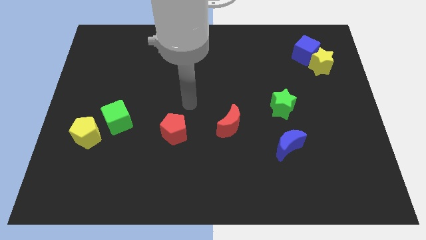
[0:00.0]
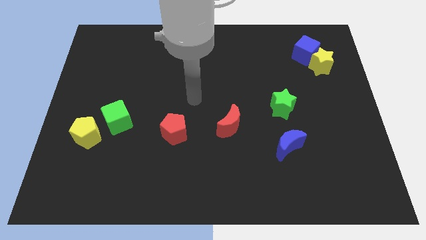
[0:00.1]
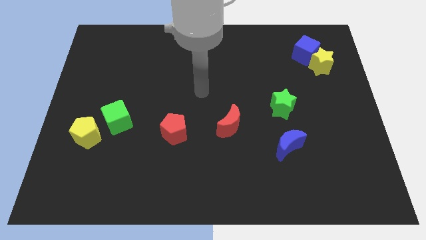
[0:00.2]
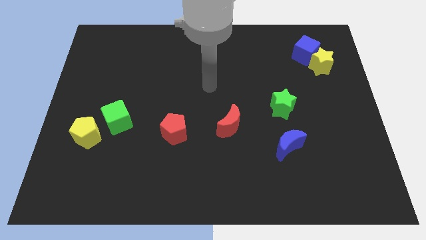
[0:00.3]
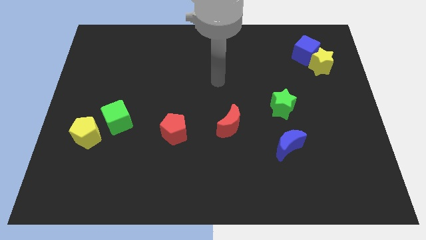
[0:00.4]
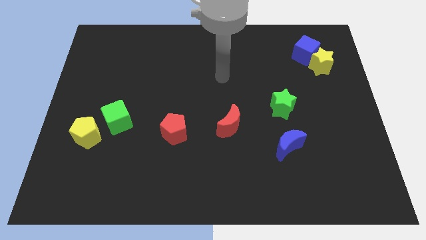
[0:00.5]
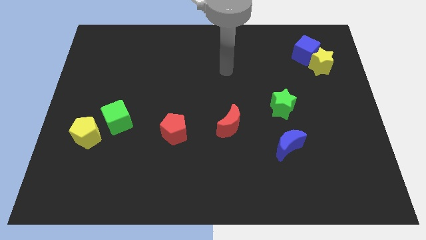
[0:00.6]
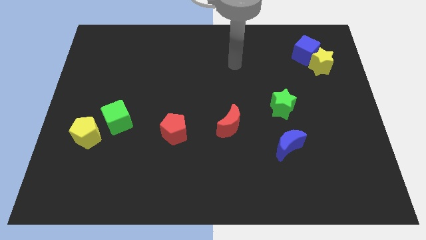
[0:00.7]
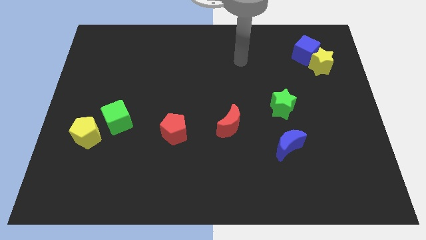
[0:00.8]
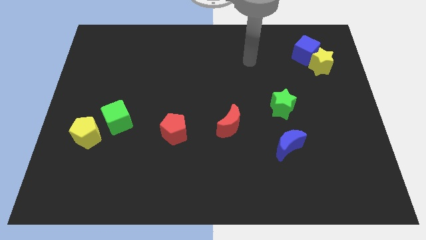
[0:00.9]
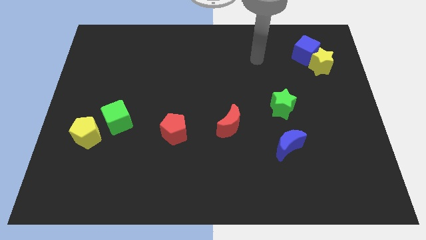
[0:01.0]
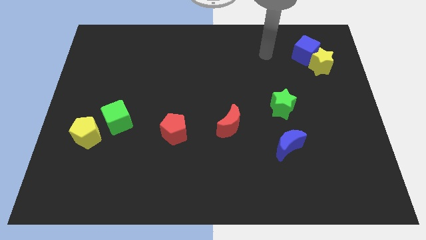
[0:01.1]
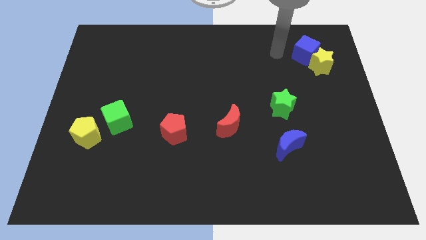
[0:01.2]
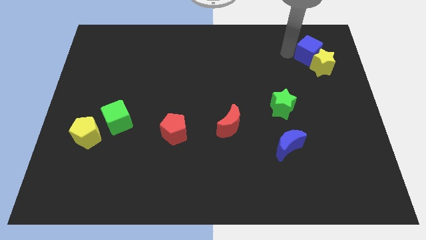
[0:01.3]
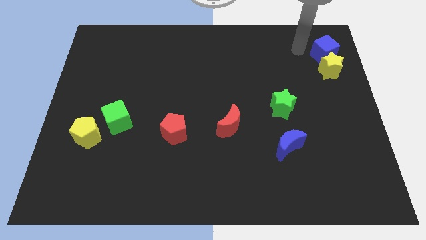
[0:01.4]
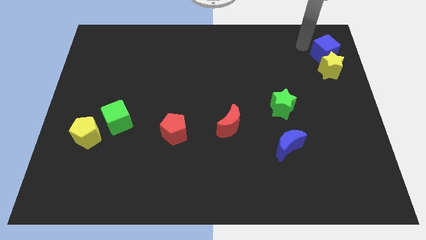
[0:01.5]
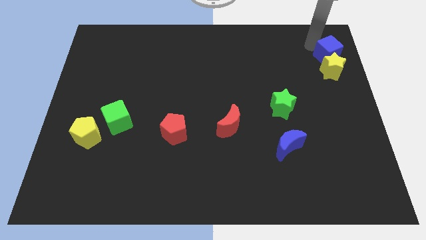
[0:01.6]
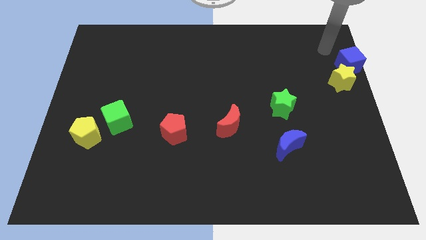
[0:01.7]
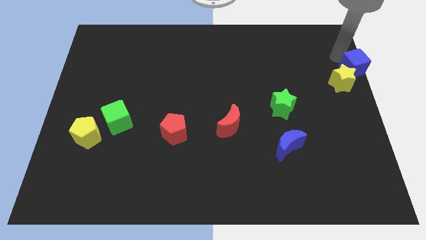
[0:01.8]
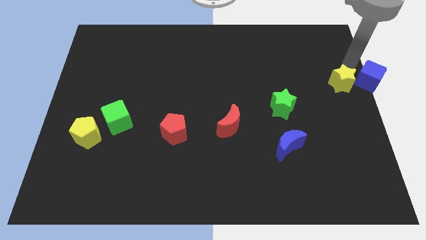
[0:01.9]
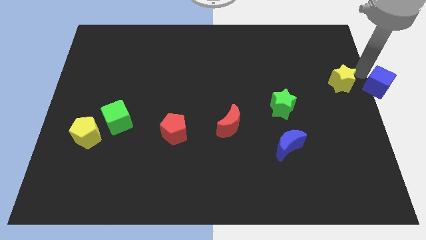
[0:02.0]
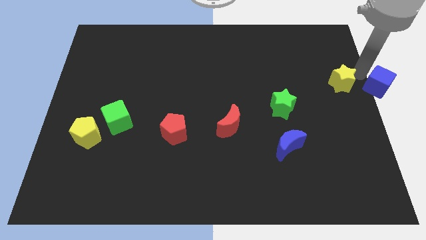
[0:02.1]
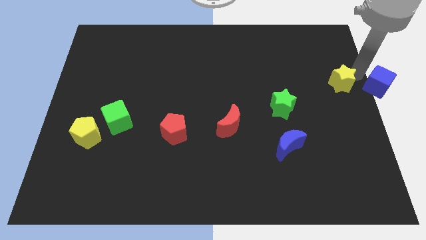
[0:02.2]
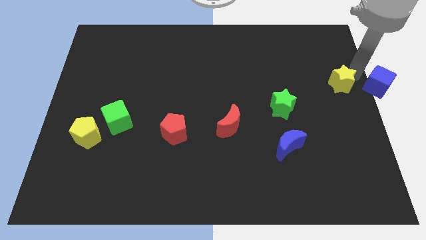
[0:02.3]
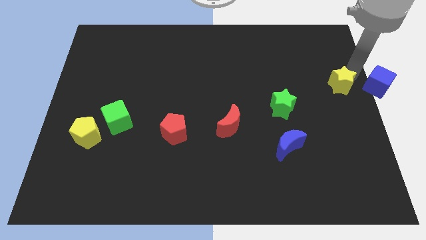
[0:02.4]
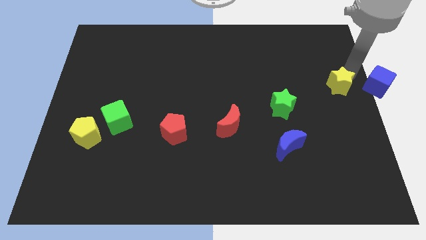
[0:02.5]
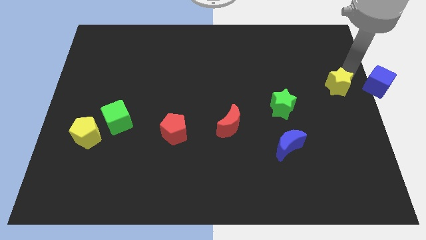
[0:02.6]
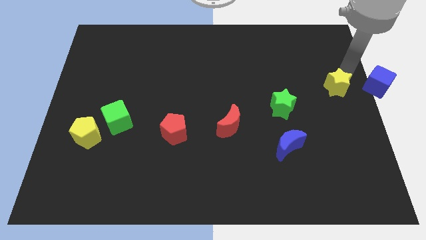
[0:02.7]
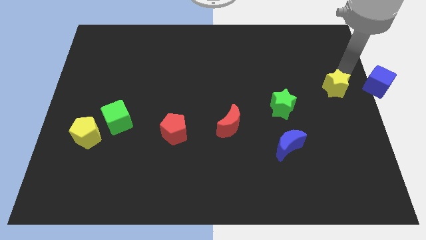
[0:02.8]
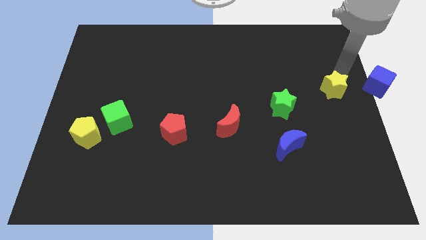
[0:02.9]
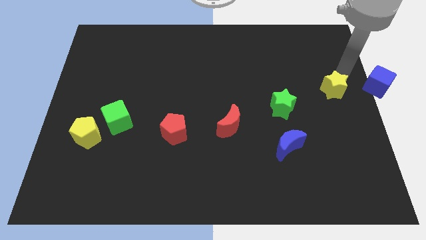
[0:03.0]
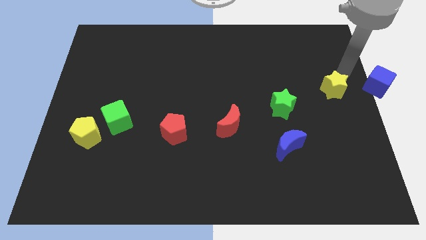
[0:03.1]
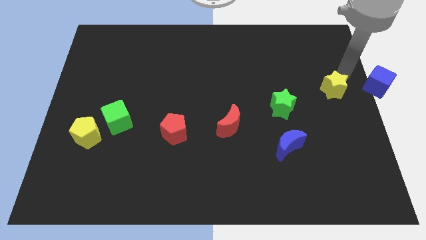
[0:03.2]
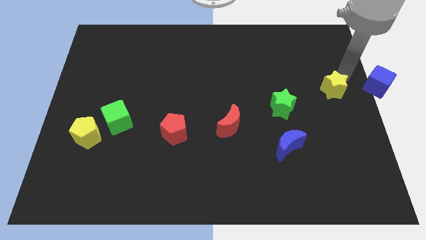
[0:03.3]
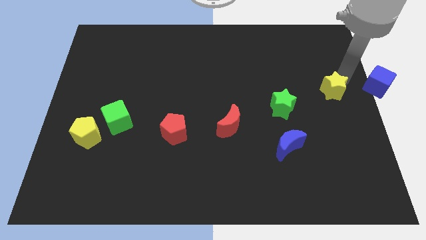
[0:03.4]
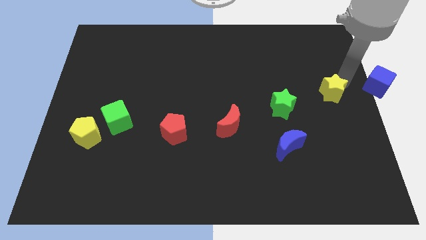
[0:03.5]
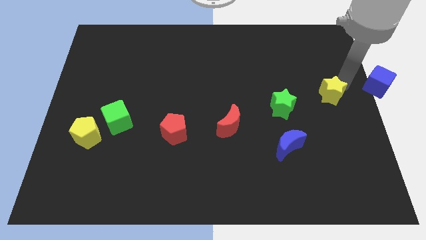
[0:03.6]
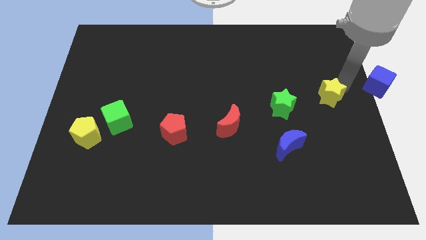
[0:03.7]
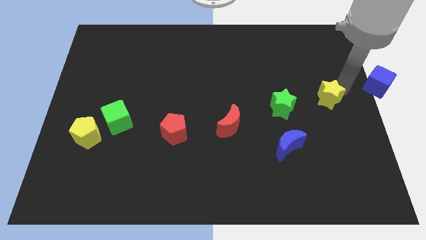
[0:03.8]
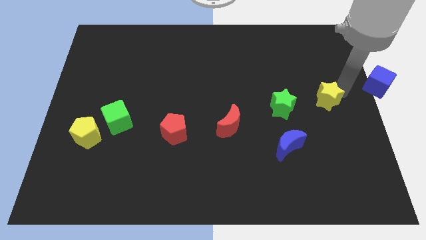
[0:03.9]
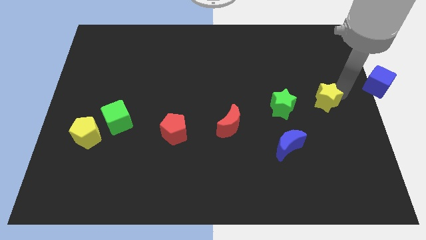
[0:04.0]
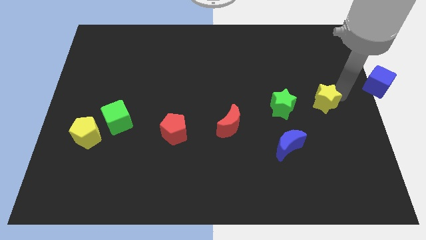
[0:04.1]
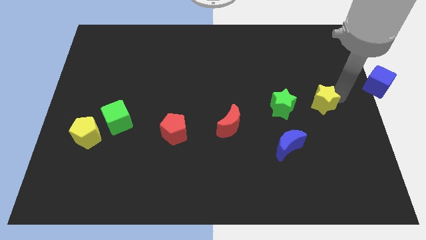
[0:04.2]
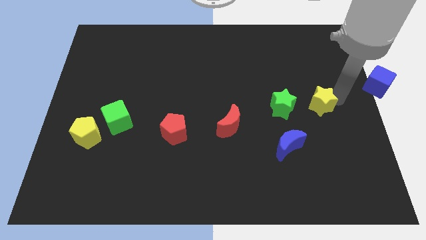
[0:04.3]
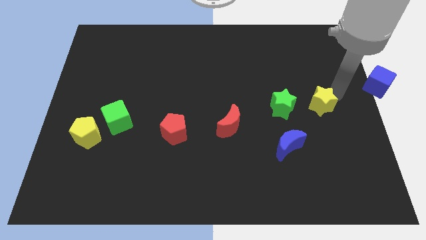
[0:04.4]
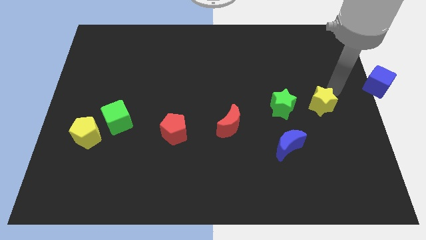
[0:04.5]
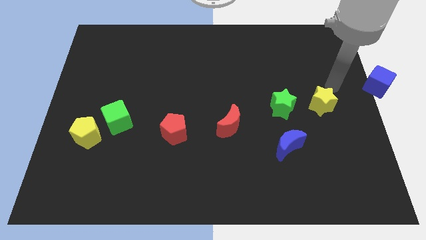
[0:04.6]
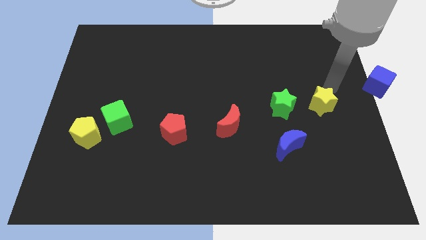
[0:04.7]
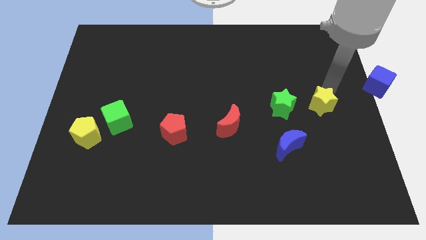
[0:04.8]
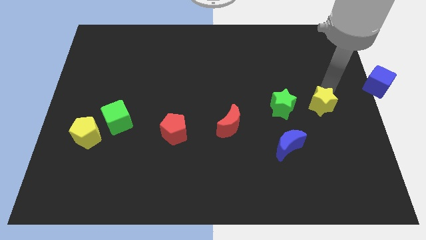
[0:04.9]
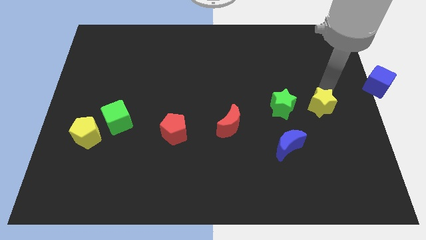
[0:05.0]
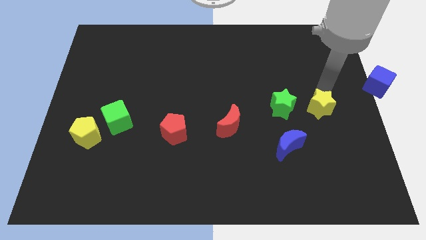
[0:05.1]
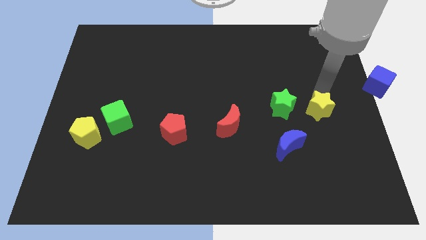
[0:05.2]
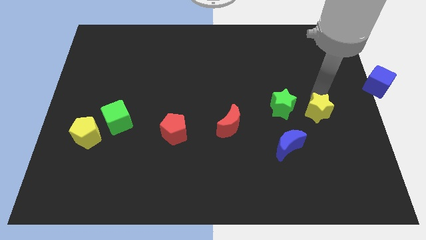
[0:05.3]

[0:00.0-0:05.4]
push the yellow star diagonally down and to the right of the green star

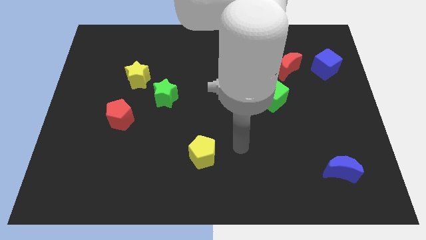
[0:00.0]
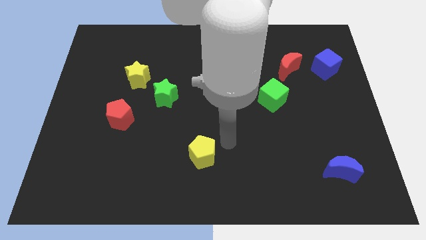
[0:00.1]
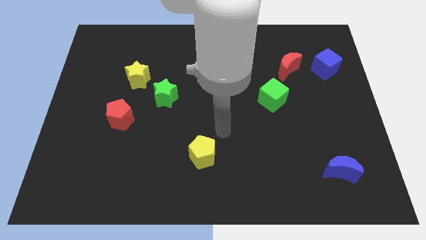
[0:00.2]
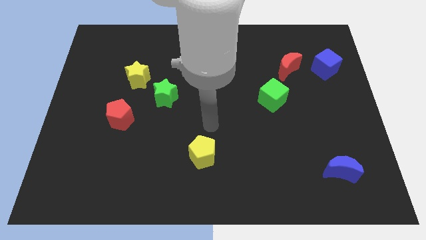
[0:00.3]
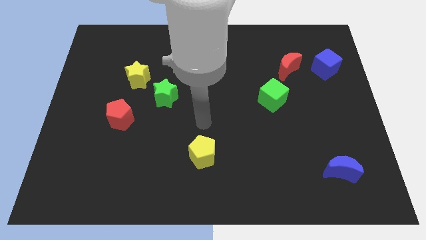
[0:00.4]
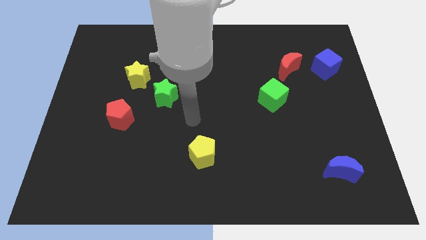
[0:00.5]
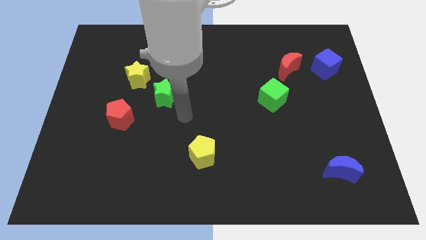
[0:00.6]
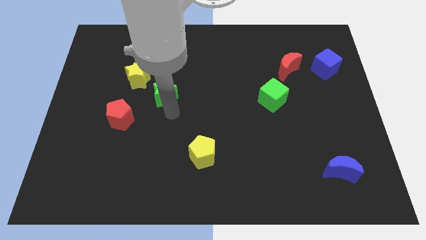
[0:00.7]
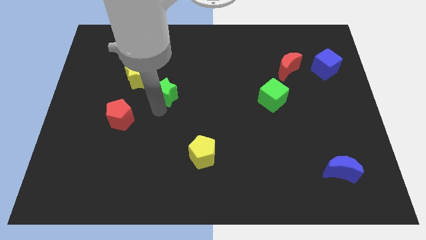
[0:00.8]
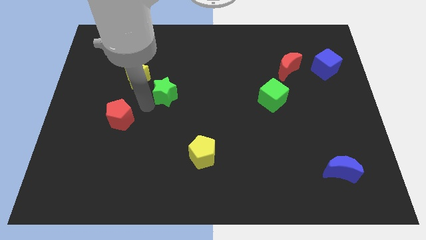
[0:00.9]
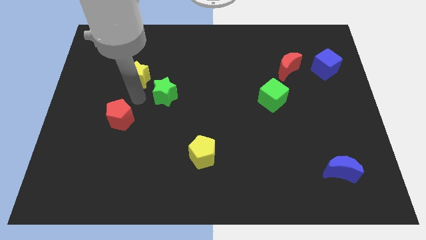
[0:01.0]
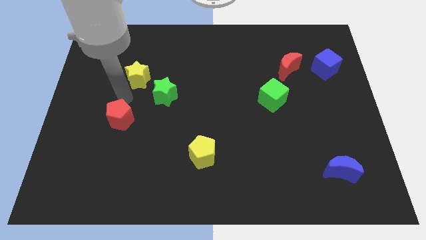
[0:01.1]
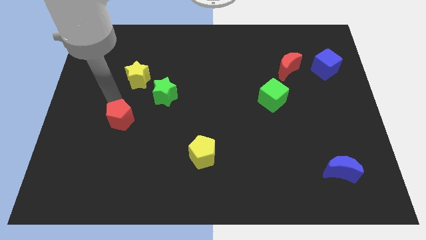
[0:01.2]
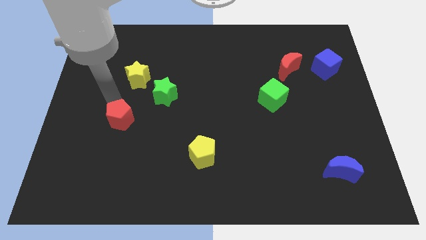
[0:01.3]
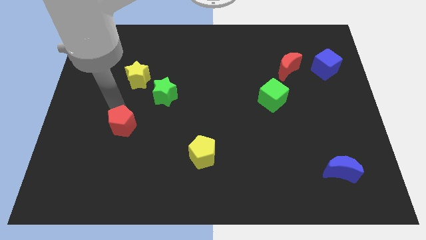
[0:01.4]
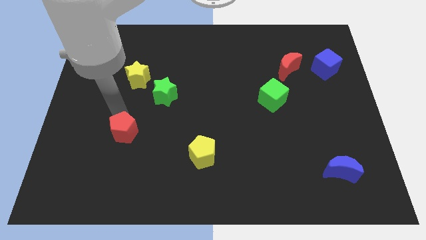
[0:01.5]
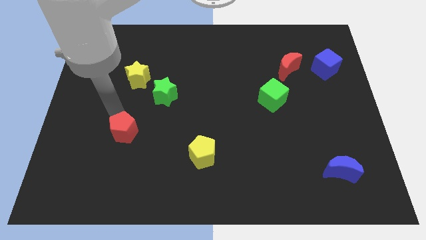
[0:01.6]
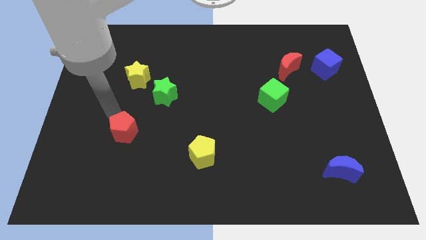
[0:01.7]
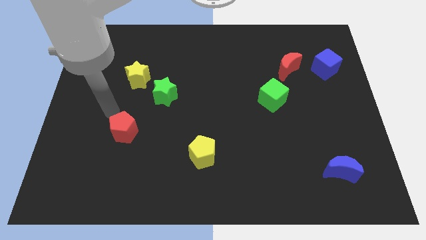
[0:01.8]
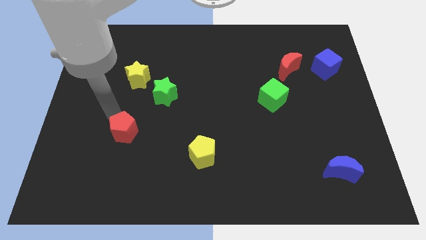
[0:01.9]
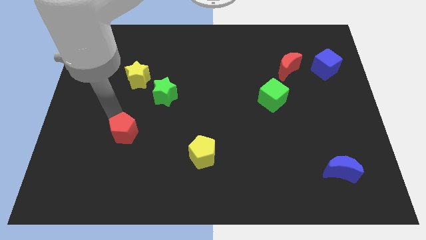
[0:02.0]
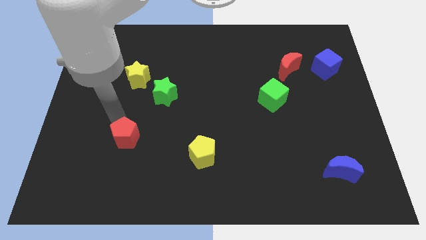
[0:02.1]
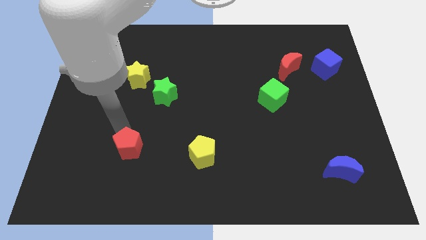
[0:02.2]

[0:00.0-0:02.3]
push the red pentagon to the left side of the yellow pentagon

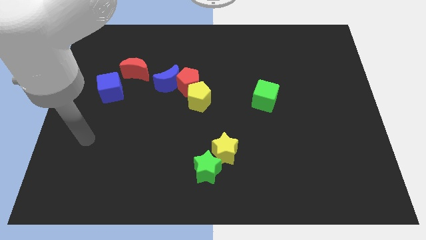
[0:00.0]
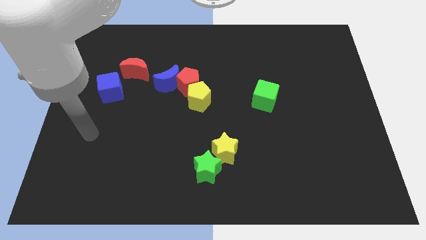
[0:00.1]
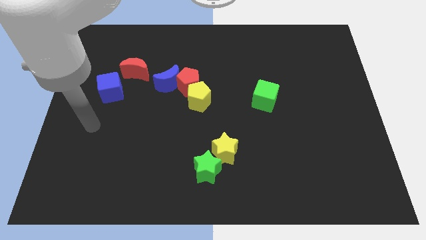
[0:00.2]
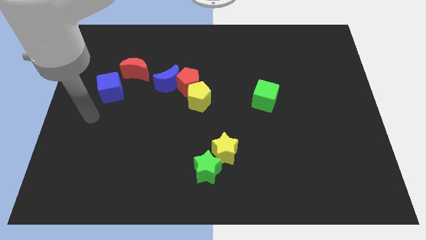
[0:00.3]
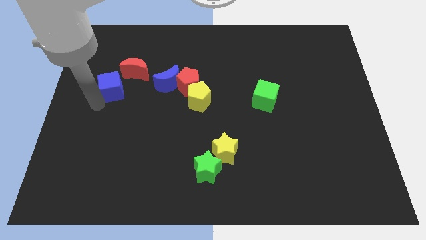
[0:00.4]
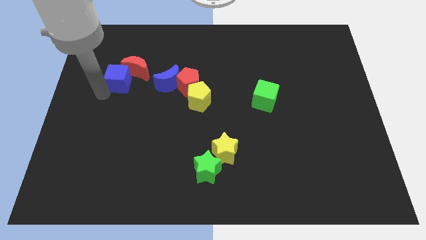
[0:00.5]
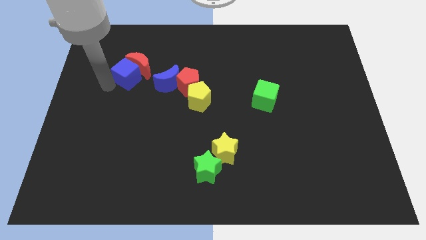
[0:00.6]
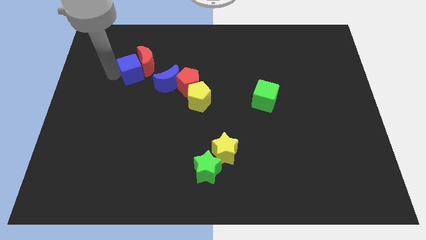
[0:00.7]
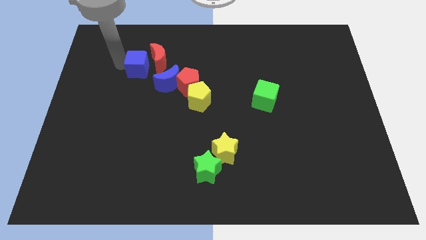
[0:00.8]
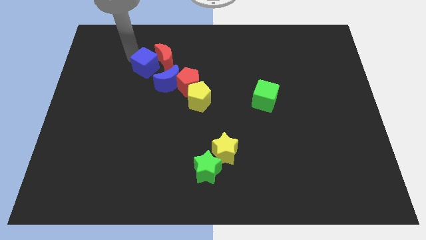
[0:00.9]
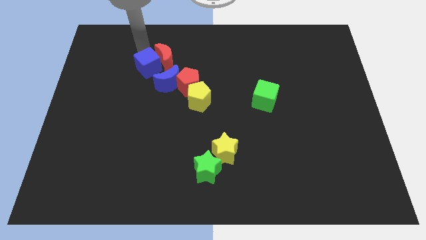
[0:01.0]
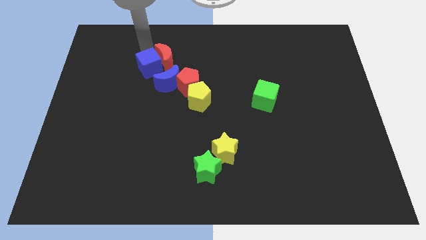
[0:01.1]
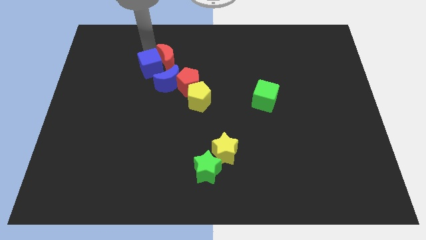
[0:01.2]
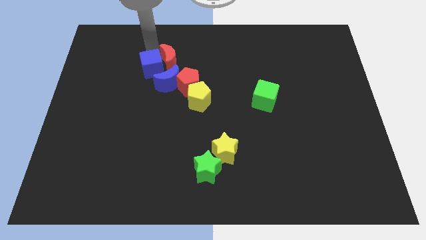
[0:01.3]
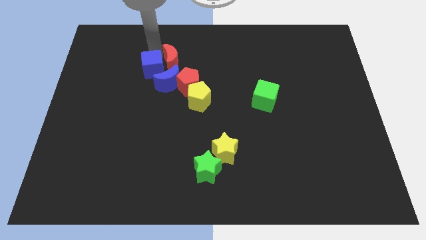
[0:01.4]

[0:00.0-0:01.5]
move the red moon to the top right side of the blue moon
